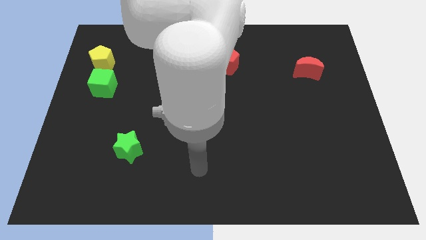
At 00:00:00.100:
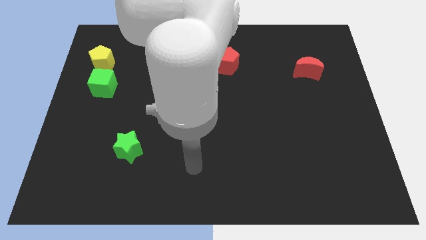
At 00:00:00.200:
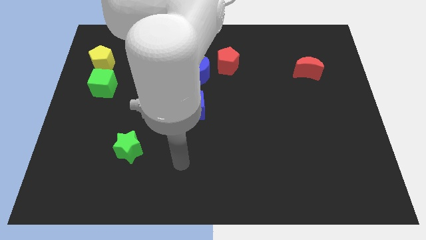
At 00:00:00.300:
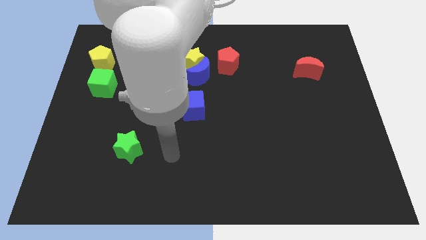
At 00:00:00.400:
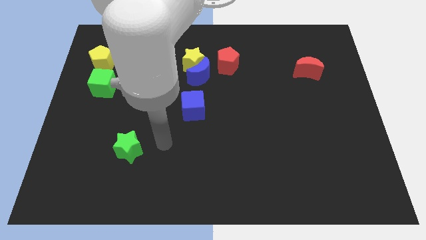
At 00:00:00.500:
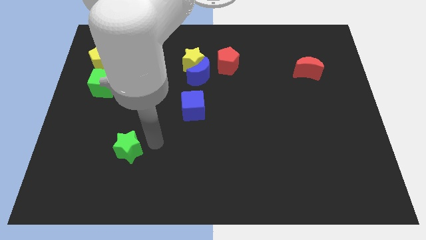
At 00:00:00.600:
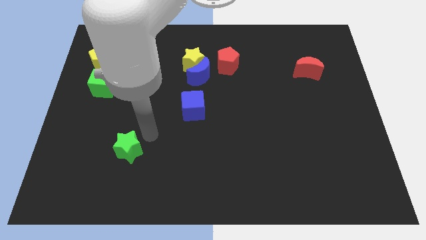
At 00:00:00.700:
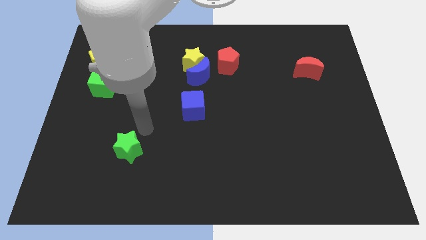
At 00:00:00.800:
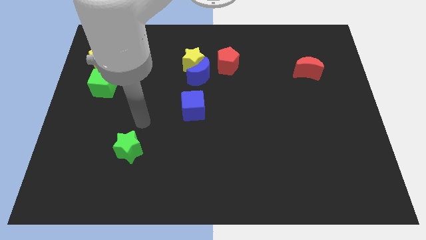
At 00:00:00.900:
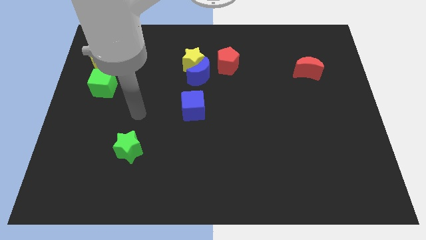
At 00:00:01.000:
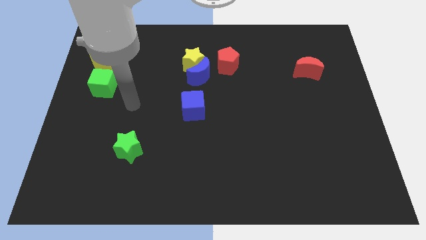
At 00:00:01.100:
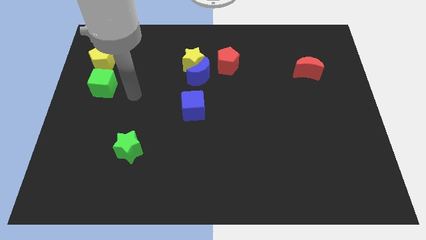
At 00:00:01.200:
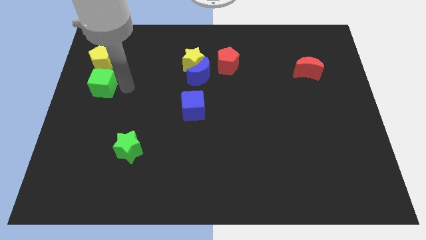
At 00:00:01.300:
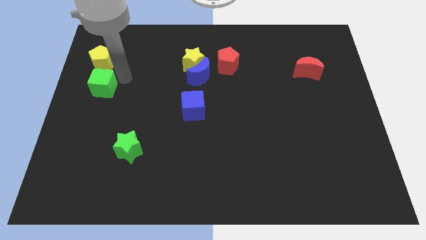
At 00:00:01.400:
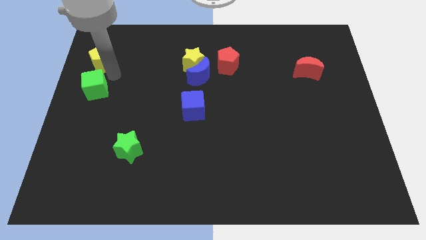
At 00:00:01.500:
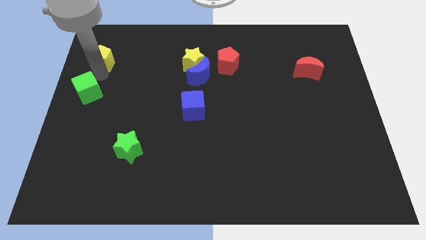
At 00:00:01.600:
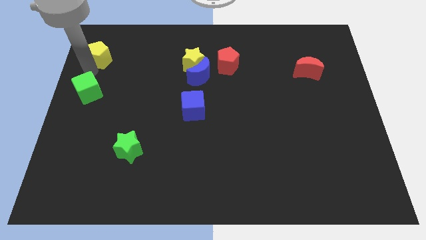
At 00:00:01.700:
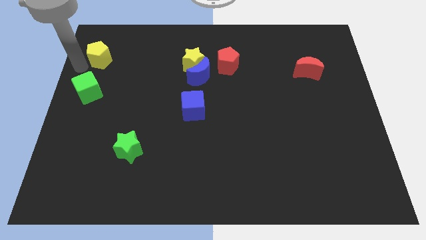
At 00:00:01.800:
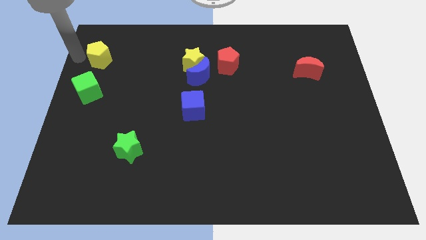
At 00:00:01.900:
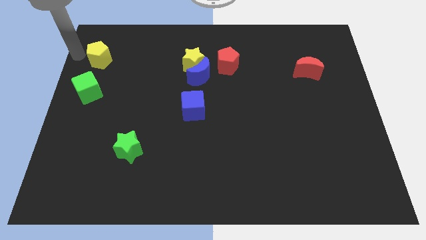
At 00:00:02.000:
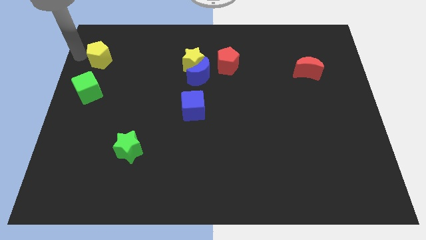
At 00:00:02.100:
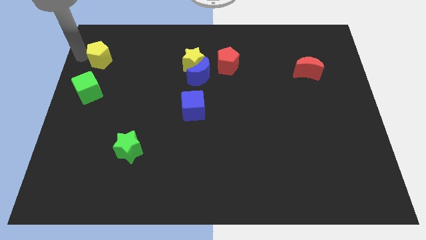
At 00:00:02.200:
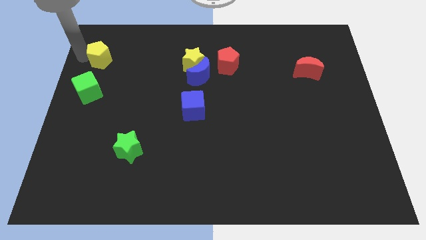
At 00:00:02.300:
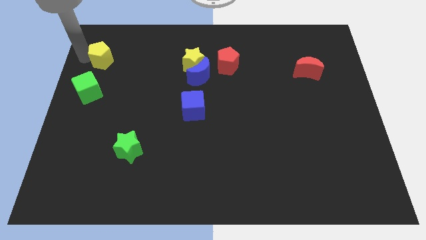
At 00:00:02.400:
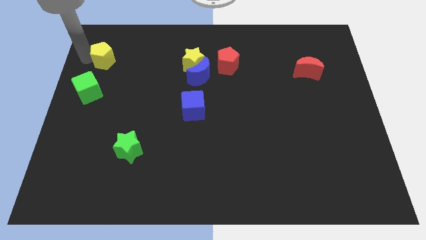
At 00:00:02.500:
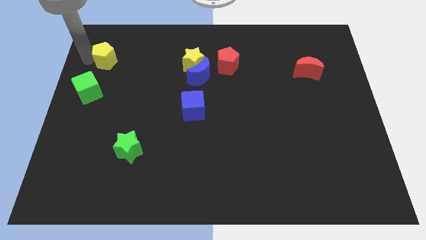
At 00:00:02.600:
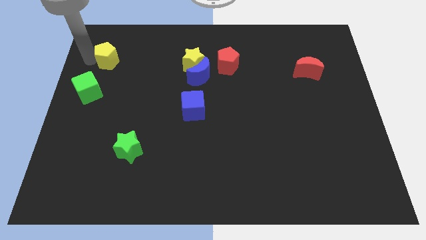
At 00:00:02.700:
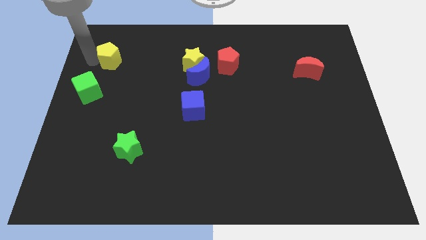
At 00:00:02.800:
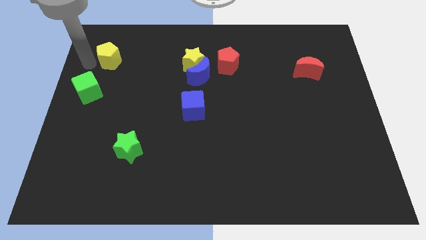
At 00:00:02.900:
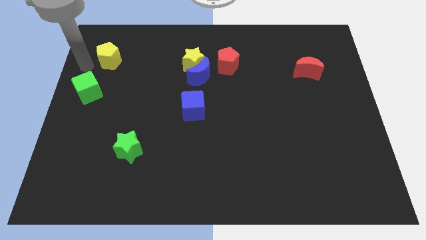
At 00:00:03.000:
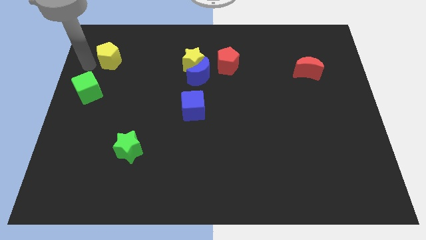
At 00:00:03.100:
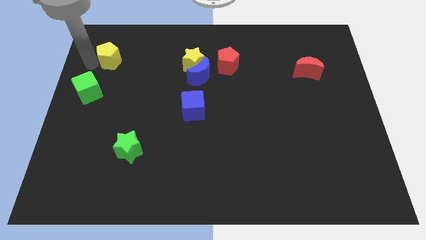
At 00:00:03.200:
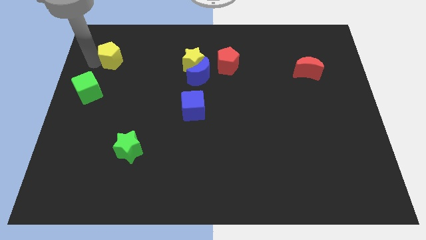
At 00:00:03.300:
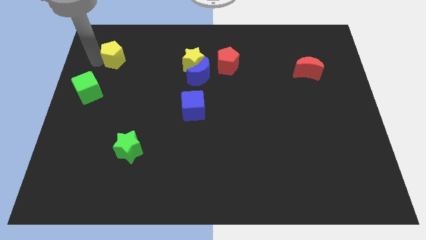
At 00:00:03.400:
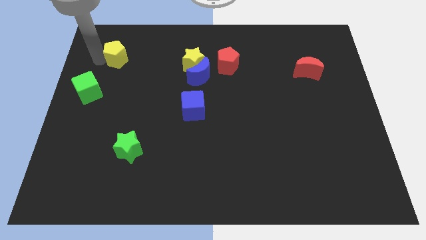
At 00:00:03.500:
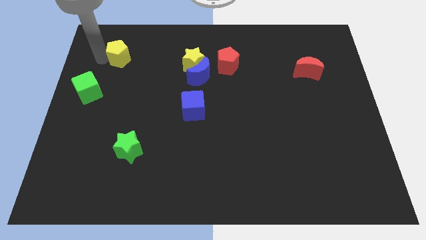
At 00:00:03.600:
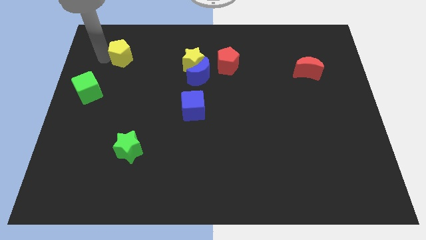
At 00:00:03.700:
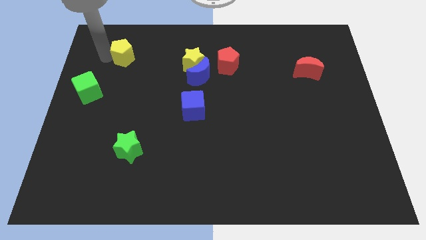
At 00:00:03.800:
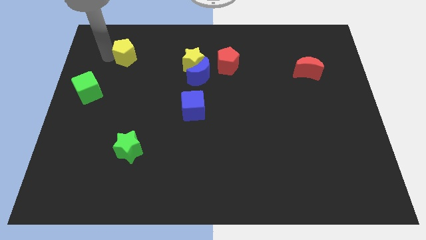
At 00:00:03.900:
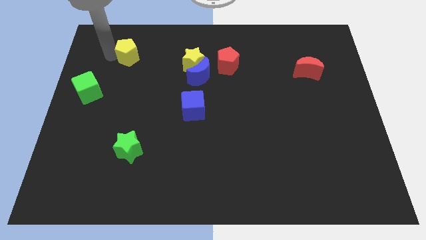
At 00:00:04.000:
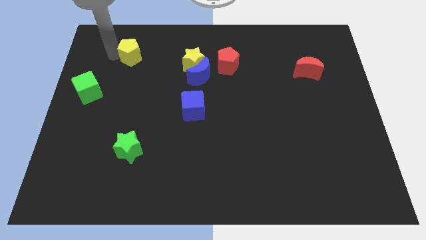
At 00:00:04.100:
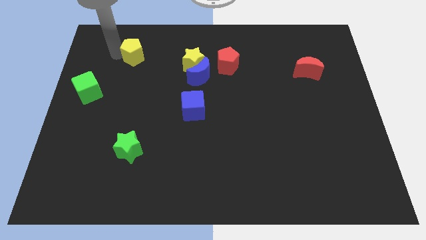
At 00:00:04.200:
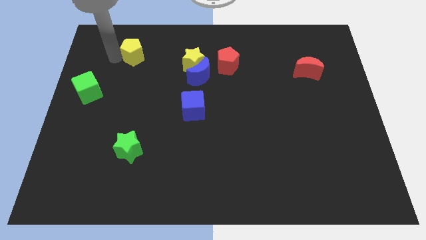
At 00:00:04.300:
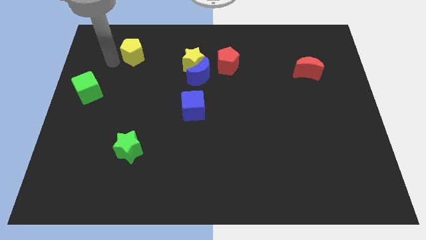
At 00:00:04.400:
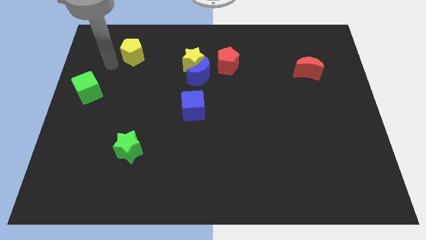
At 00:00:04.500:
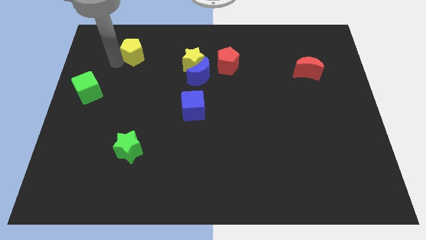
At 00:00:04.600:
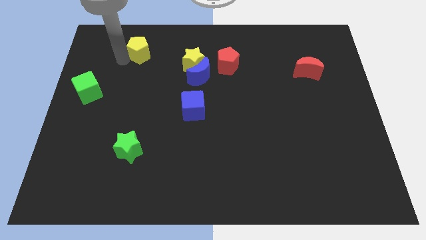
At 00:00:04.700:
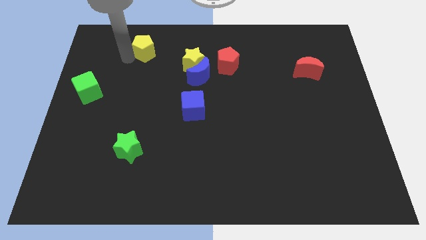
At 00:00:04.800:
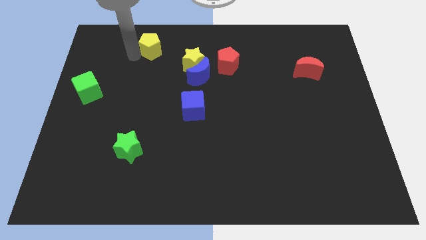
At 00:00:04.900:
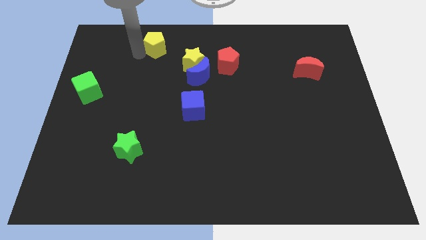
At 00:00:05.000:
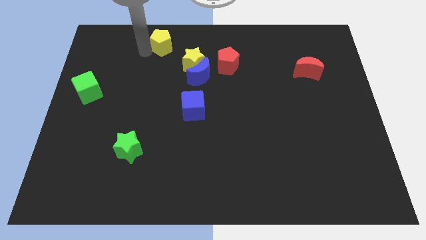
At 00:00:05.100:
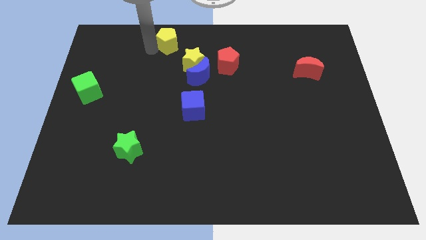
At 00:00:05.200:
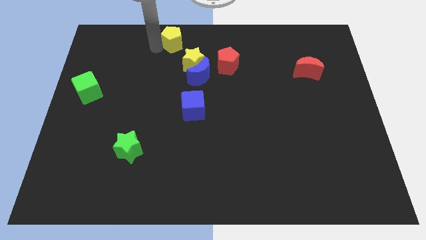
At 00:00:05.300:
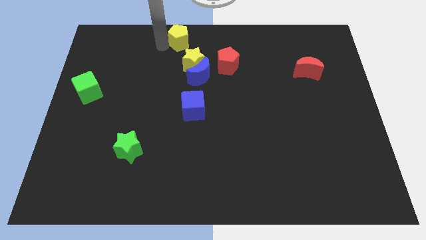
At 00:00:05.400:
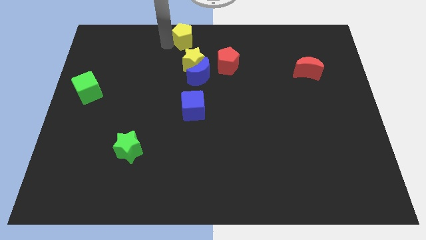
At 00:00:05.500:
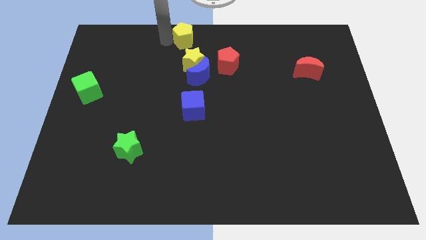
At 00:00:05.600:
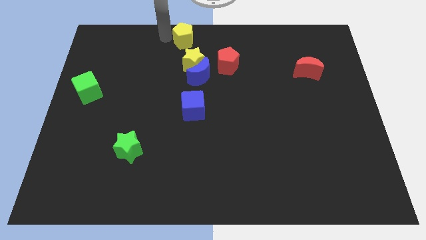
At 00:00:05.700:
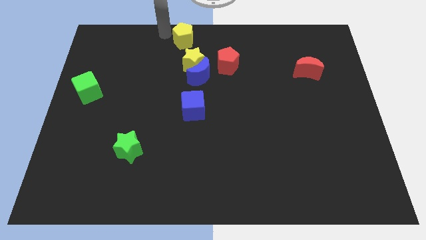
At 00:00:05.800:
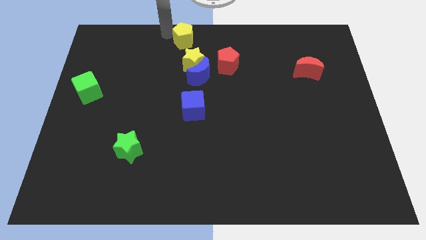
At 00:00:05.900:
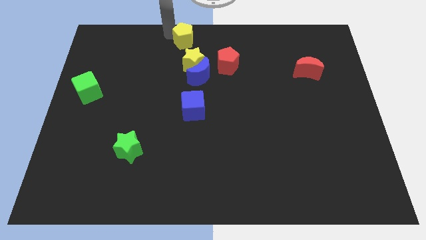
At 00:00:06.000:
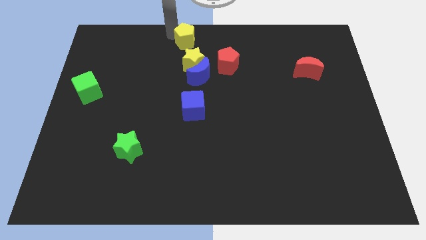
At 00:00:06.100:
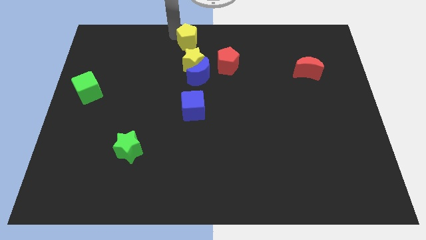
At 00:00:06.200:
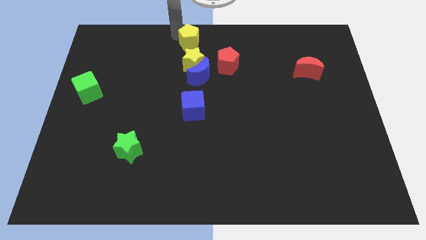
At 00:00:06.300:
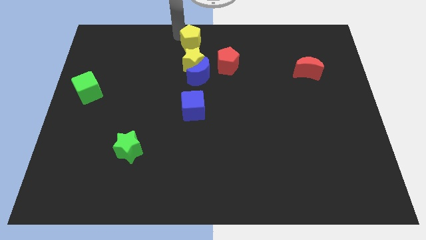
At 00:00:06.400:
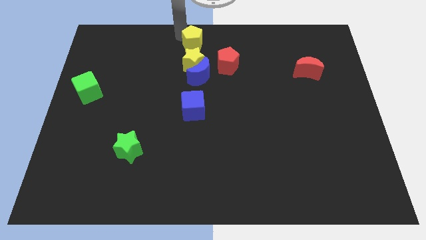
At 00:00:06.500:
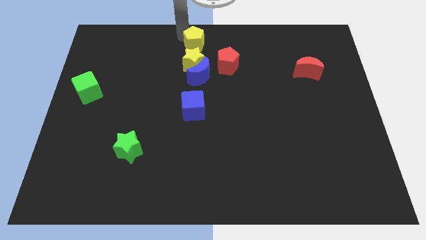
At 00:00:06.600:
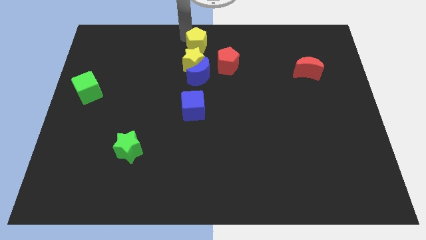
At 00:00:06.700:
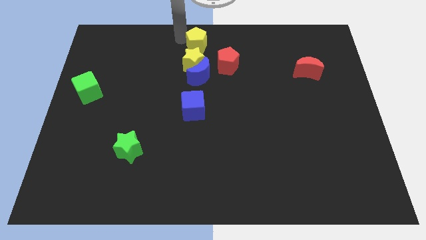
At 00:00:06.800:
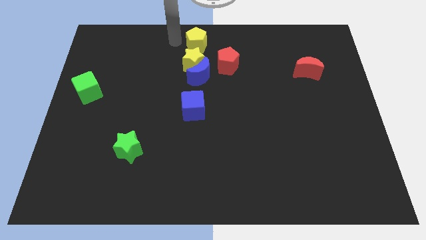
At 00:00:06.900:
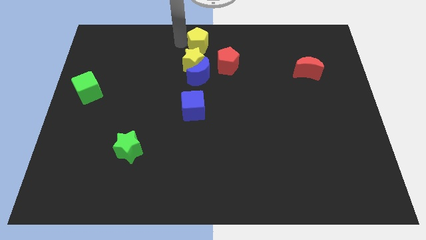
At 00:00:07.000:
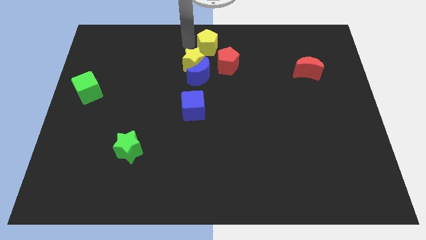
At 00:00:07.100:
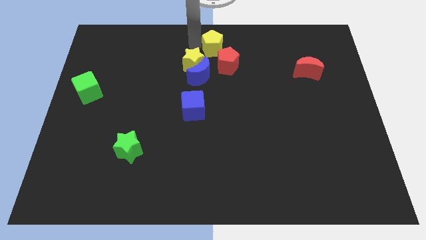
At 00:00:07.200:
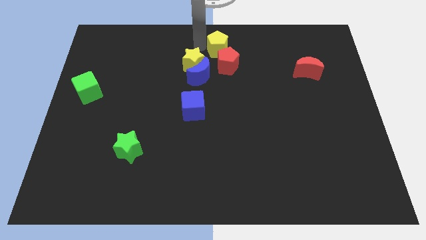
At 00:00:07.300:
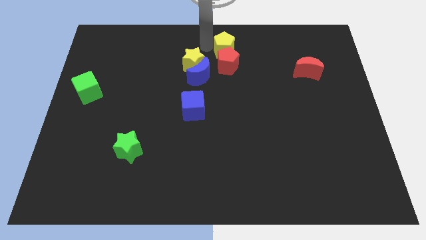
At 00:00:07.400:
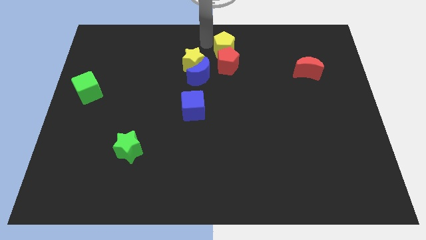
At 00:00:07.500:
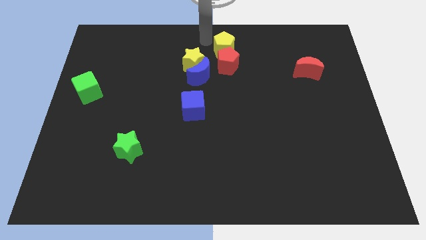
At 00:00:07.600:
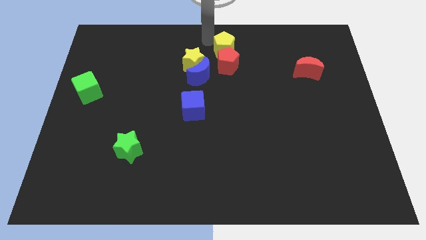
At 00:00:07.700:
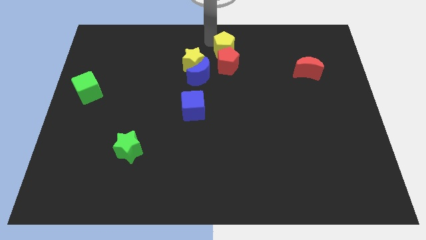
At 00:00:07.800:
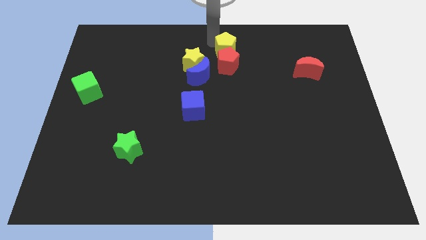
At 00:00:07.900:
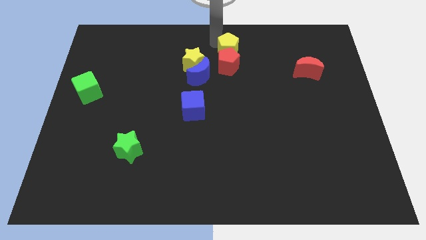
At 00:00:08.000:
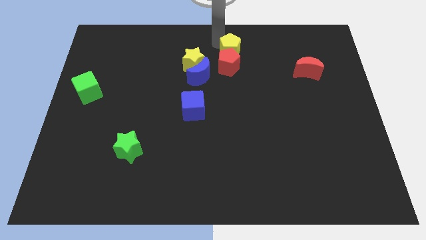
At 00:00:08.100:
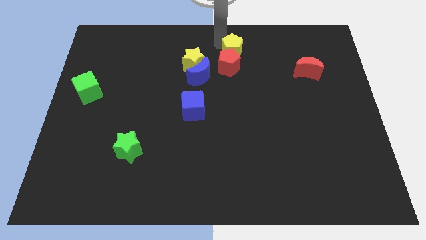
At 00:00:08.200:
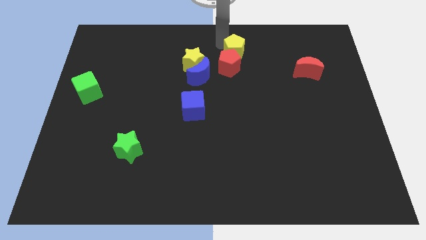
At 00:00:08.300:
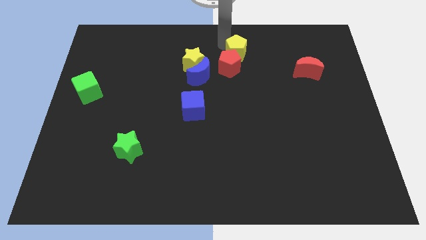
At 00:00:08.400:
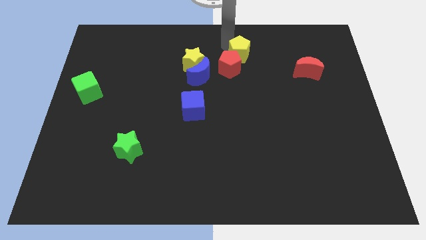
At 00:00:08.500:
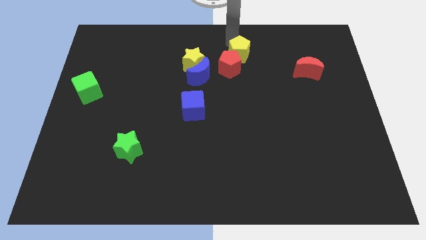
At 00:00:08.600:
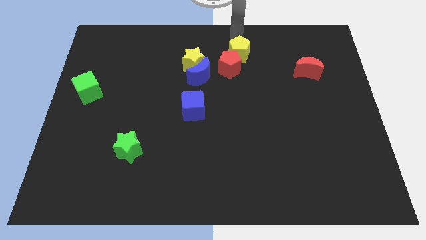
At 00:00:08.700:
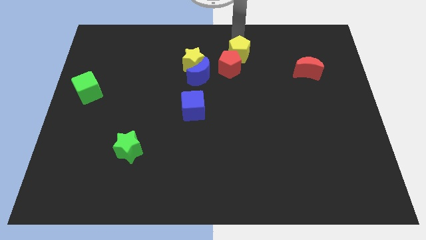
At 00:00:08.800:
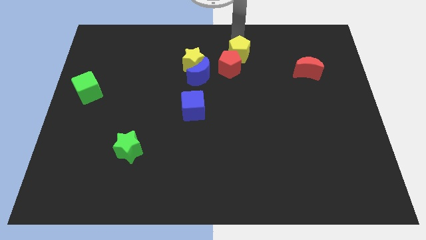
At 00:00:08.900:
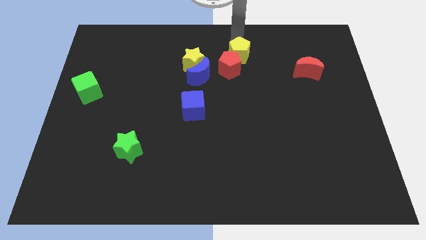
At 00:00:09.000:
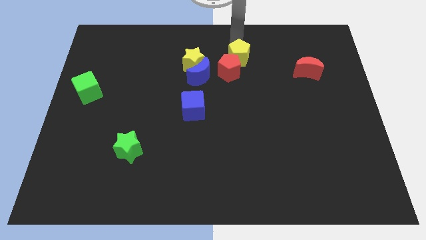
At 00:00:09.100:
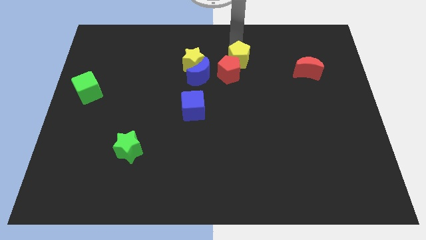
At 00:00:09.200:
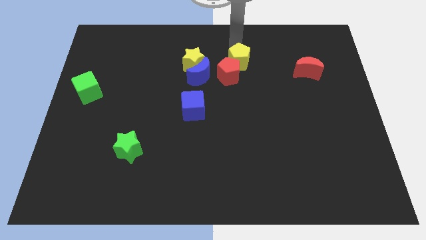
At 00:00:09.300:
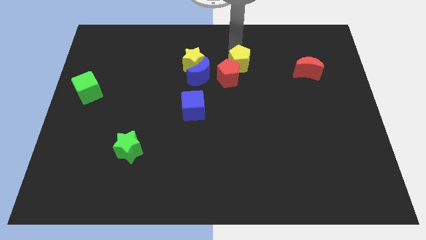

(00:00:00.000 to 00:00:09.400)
push the yellow pentagon to the right side of the blue moon
